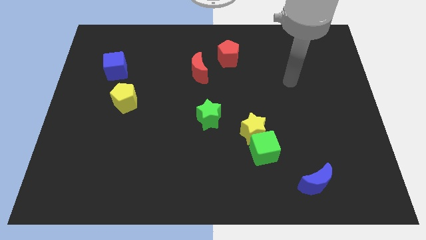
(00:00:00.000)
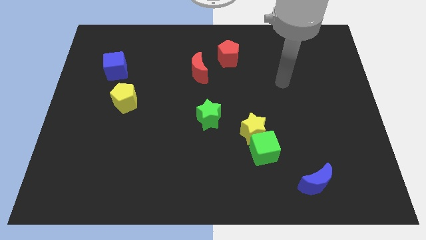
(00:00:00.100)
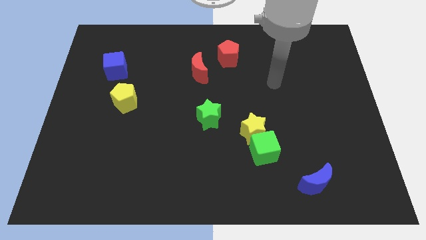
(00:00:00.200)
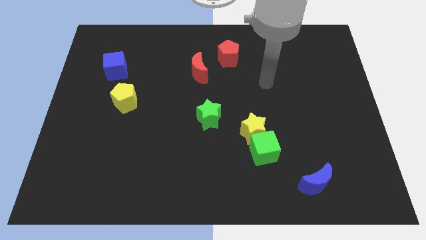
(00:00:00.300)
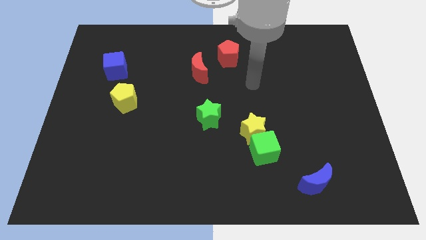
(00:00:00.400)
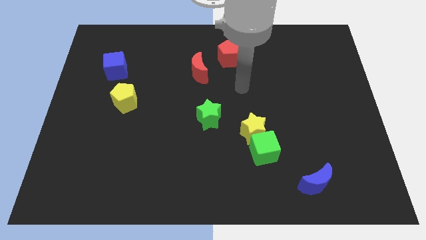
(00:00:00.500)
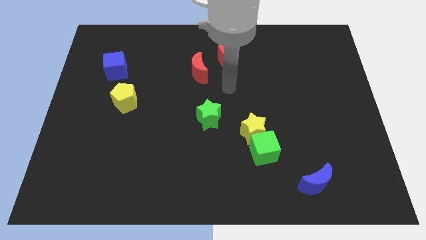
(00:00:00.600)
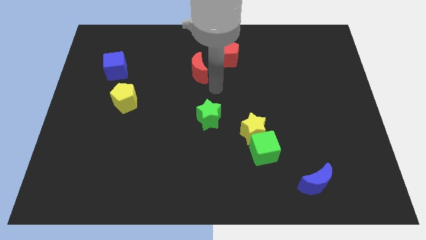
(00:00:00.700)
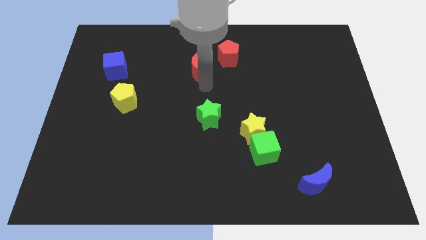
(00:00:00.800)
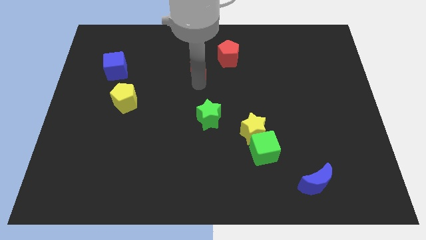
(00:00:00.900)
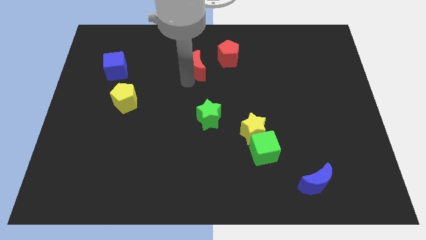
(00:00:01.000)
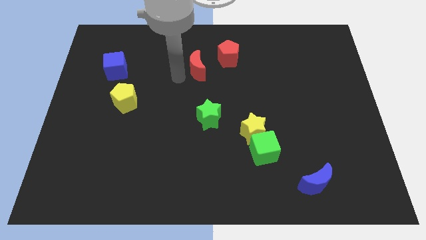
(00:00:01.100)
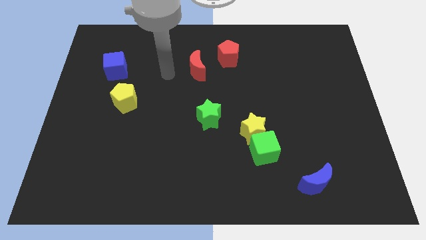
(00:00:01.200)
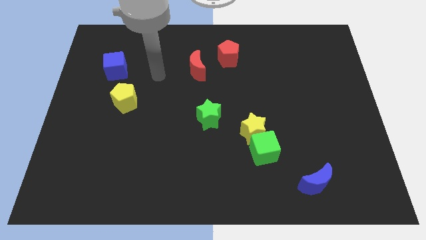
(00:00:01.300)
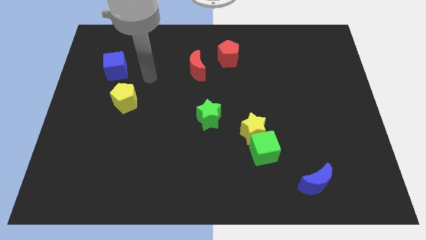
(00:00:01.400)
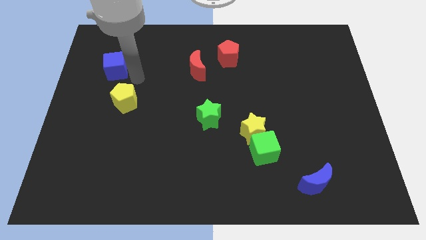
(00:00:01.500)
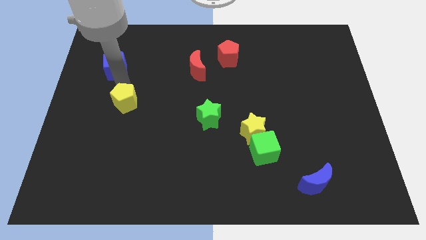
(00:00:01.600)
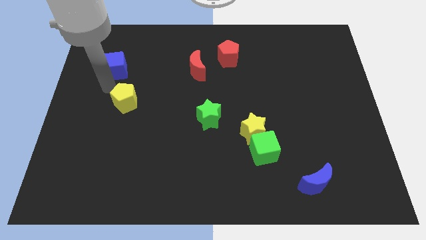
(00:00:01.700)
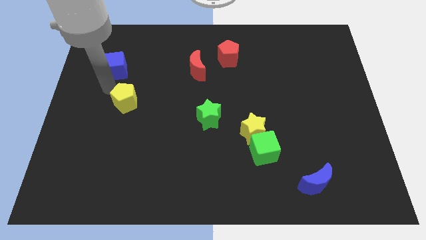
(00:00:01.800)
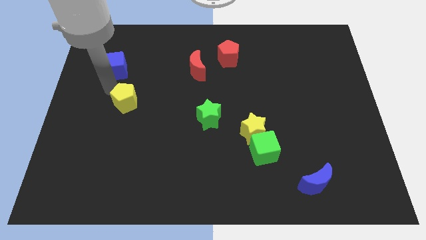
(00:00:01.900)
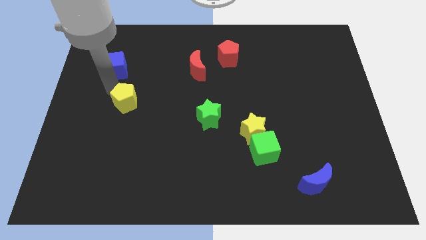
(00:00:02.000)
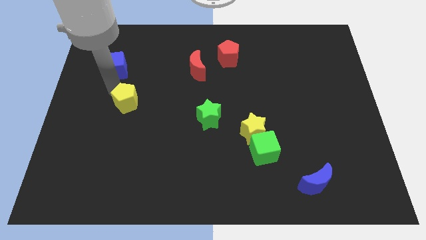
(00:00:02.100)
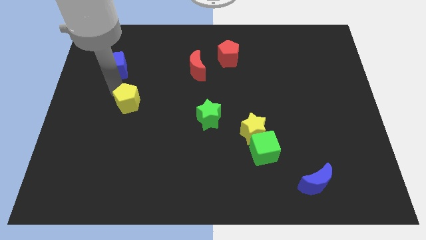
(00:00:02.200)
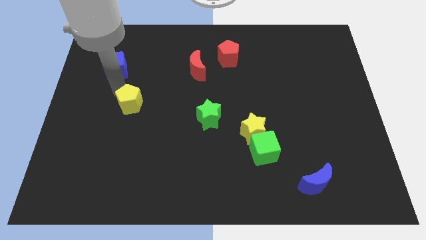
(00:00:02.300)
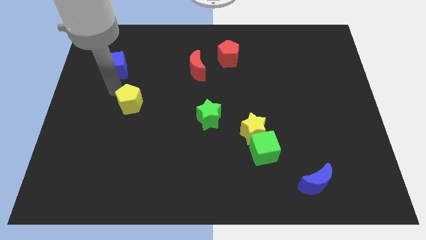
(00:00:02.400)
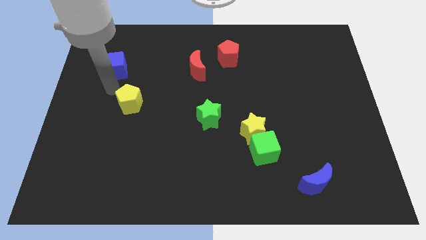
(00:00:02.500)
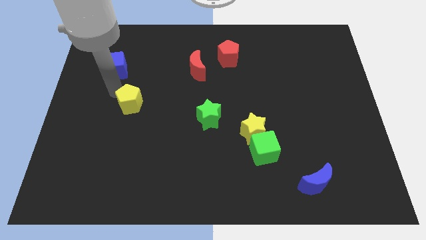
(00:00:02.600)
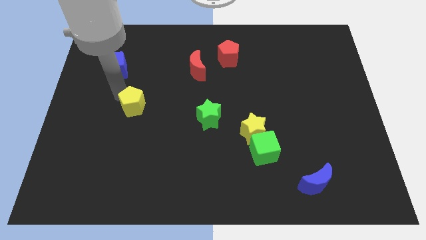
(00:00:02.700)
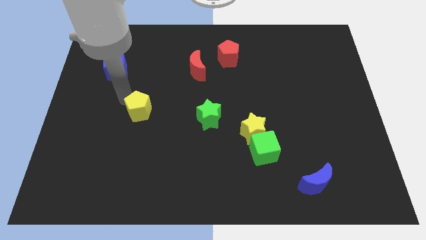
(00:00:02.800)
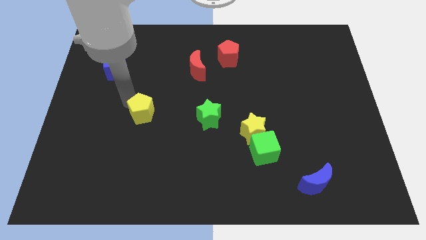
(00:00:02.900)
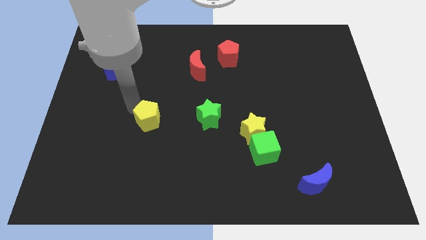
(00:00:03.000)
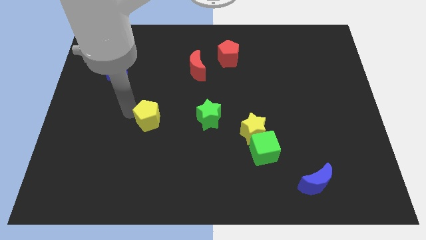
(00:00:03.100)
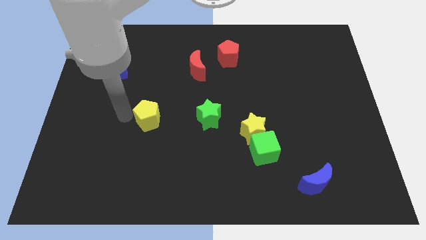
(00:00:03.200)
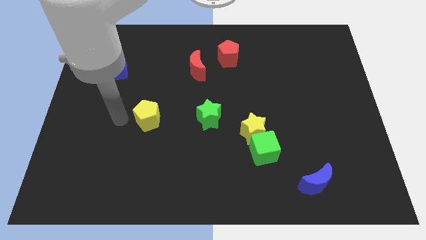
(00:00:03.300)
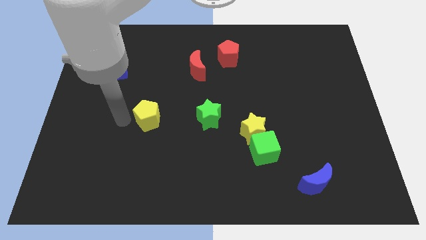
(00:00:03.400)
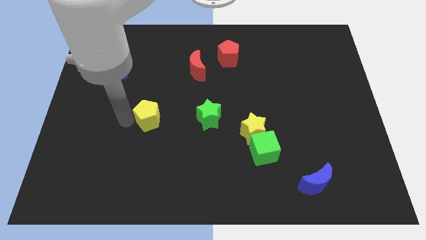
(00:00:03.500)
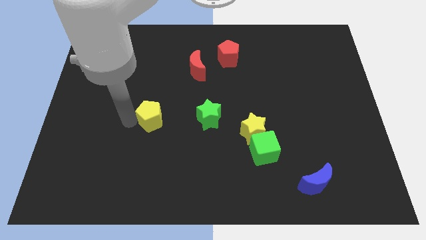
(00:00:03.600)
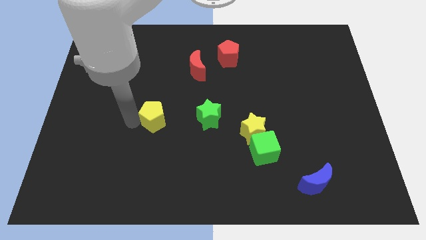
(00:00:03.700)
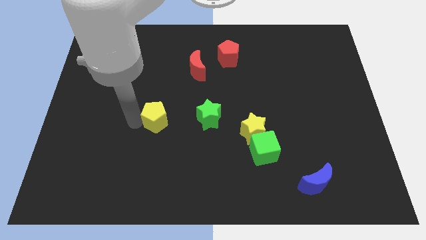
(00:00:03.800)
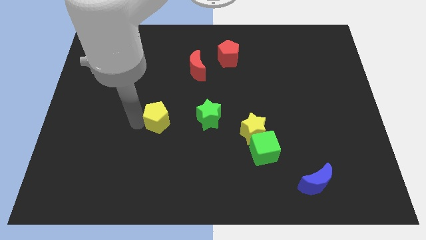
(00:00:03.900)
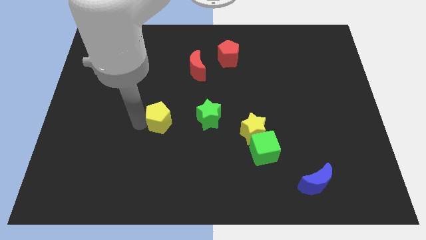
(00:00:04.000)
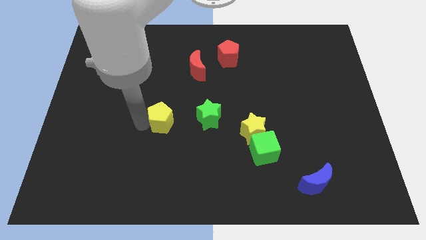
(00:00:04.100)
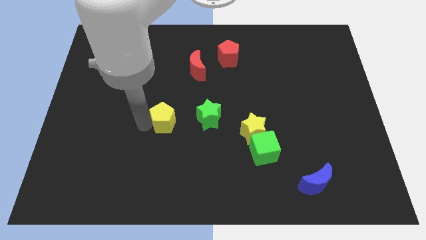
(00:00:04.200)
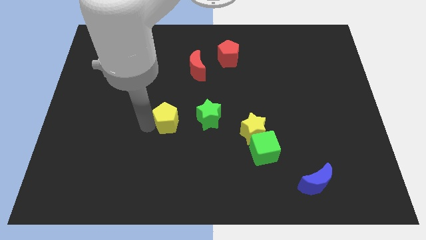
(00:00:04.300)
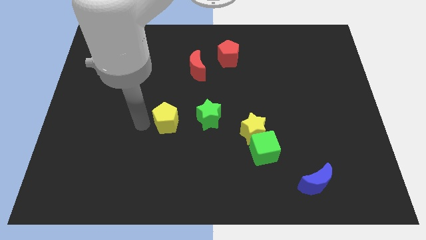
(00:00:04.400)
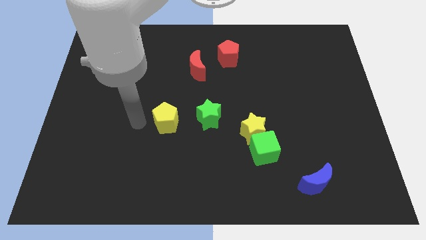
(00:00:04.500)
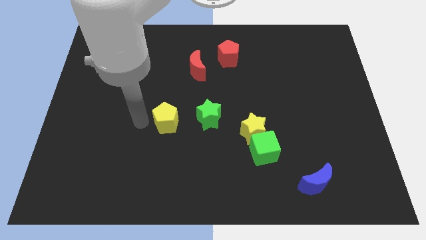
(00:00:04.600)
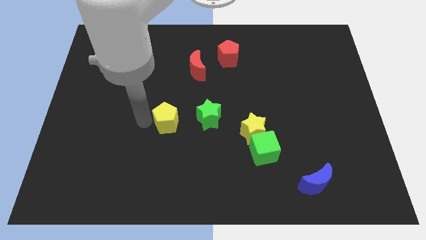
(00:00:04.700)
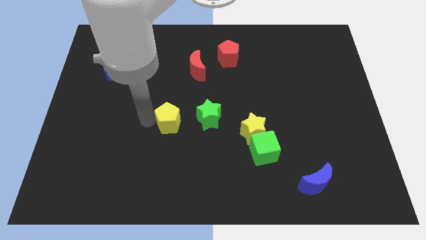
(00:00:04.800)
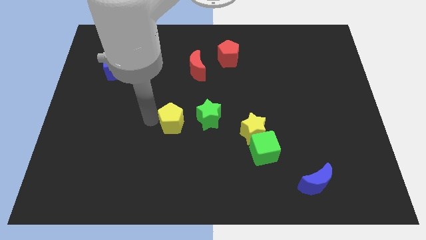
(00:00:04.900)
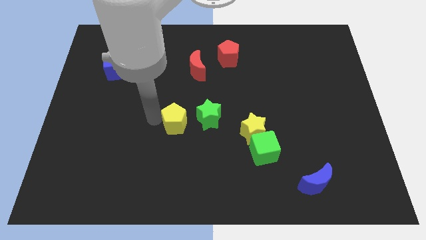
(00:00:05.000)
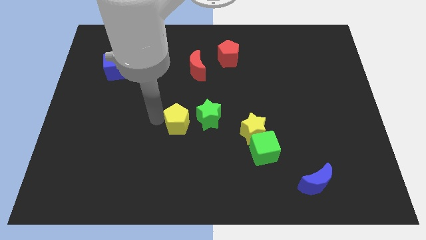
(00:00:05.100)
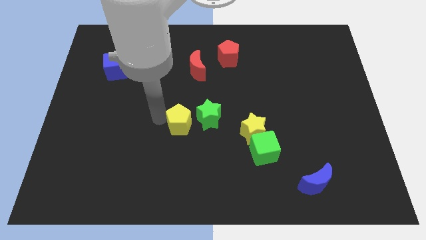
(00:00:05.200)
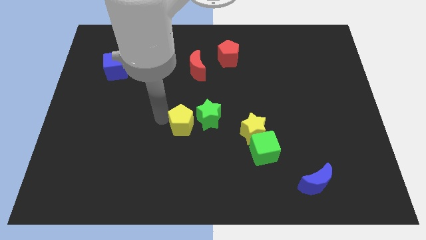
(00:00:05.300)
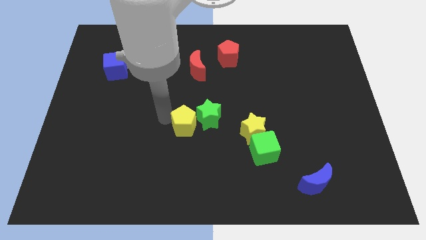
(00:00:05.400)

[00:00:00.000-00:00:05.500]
push the yellow pentagon close to the green star

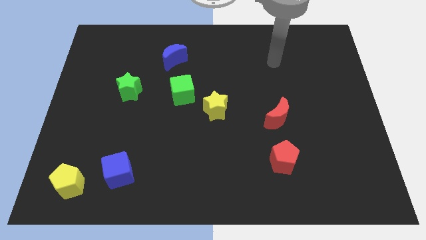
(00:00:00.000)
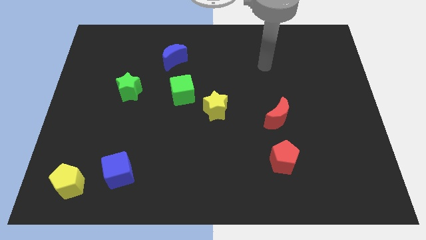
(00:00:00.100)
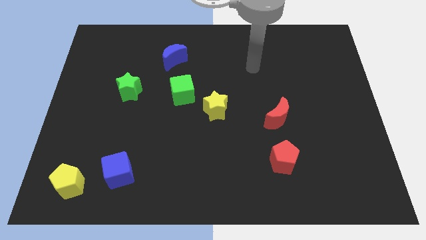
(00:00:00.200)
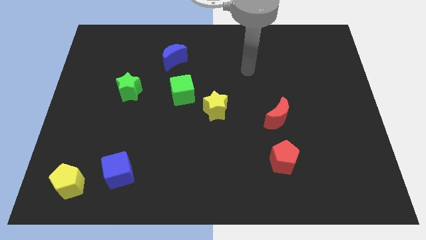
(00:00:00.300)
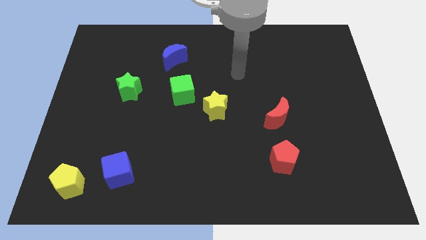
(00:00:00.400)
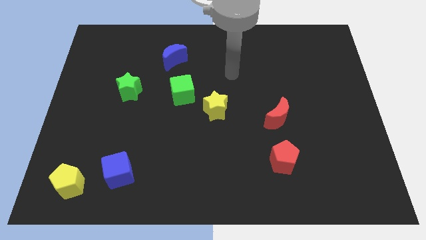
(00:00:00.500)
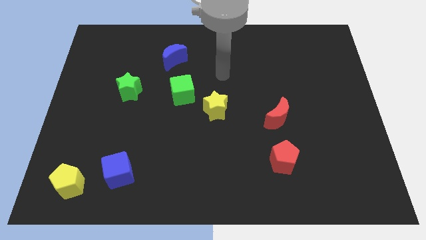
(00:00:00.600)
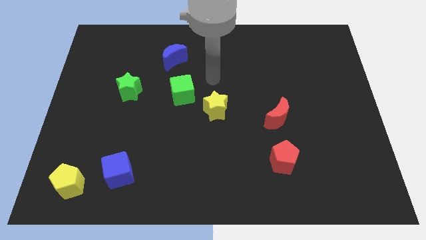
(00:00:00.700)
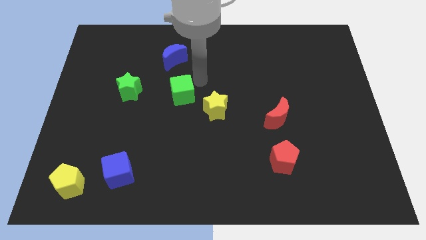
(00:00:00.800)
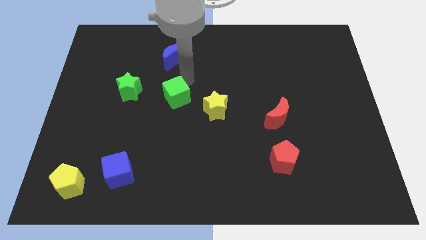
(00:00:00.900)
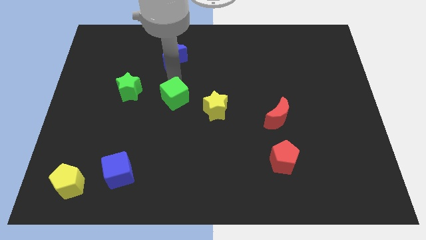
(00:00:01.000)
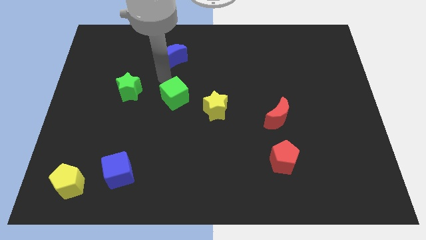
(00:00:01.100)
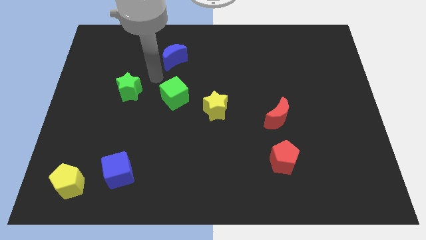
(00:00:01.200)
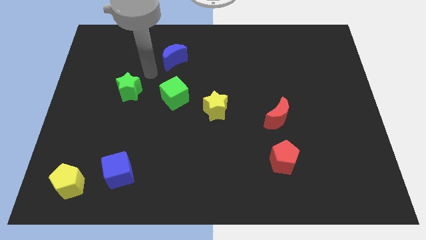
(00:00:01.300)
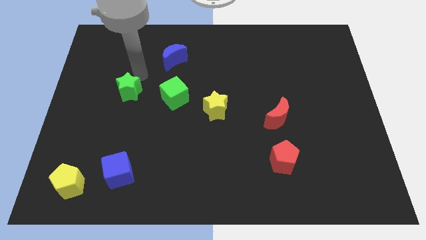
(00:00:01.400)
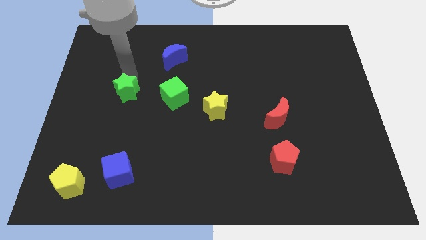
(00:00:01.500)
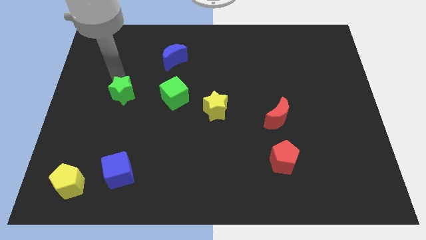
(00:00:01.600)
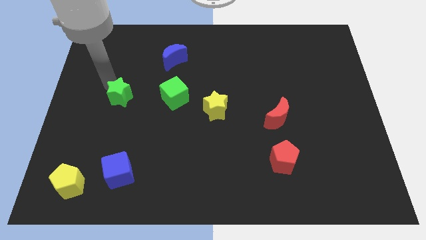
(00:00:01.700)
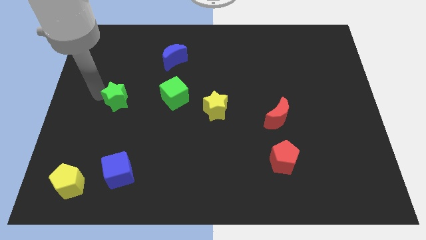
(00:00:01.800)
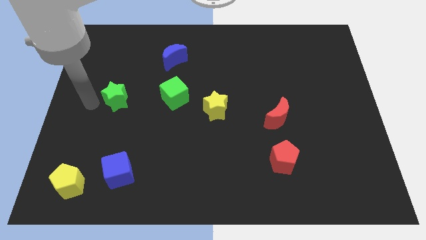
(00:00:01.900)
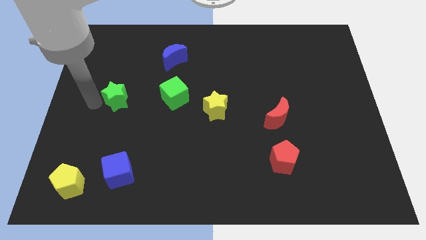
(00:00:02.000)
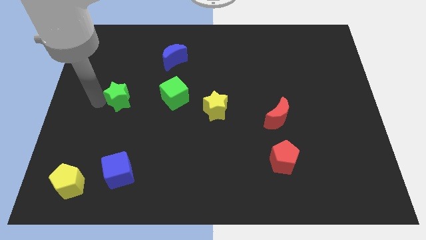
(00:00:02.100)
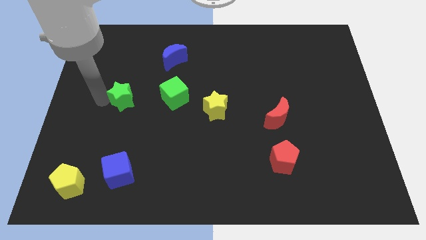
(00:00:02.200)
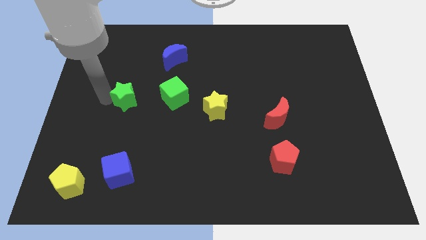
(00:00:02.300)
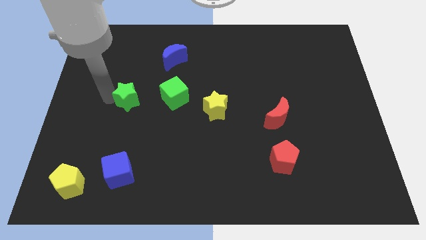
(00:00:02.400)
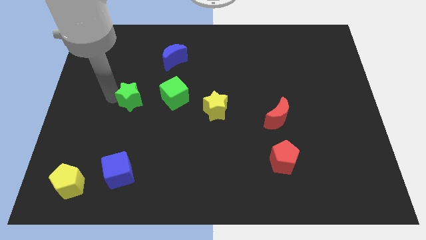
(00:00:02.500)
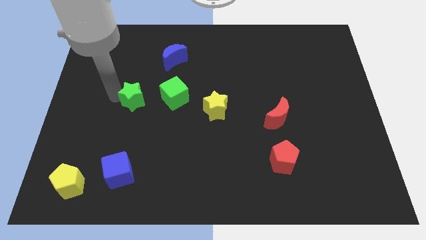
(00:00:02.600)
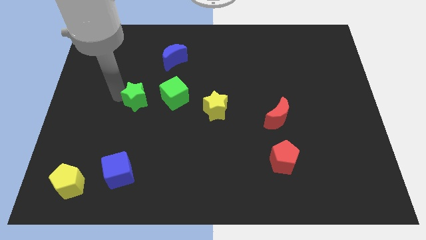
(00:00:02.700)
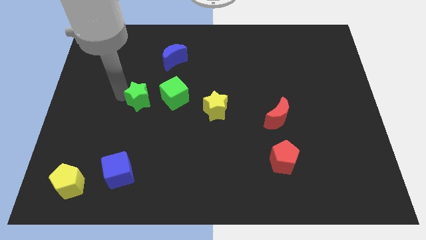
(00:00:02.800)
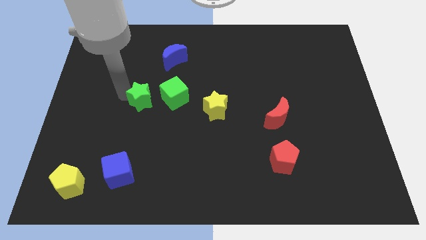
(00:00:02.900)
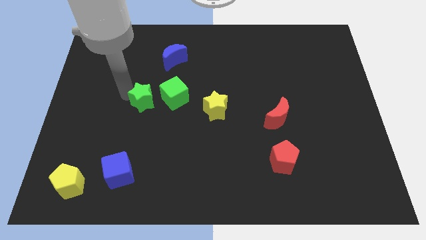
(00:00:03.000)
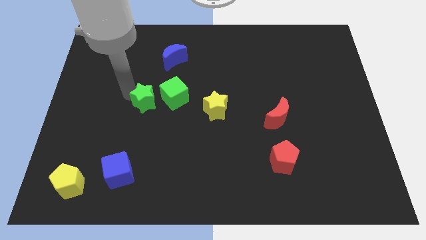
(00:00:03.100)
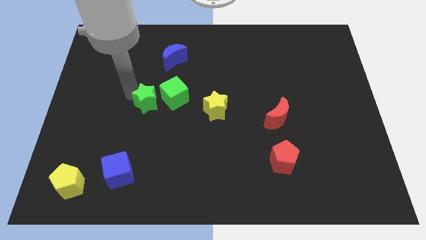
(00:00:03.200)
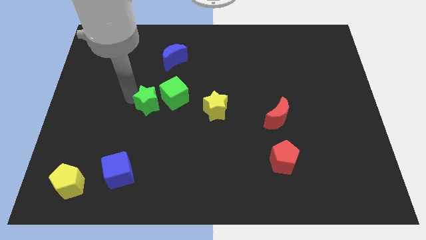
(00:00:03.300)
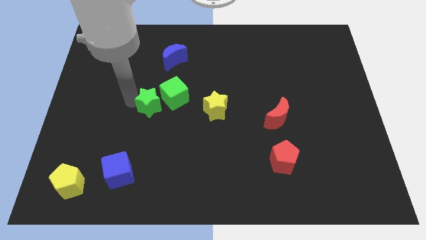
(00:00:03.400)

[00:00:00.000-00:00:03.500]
slide the green star to the green cube
